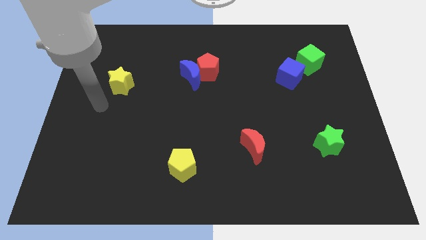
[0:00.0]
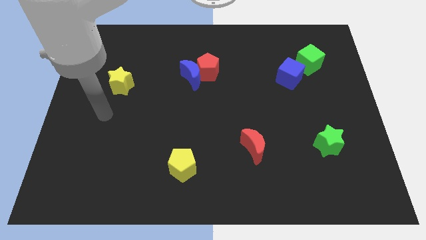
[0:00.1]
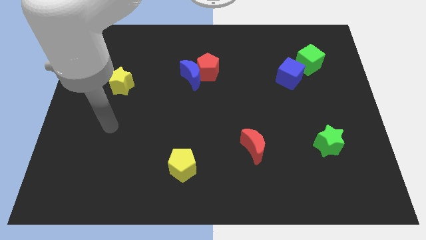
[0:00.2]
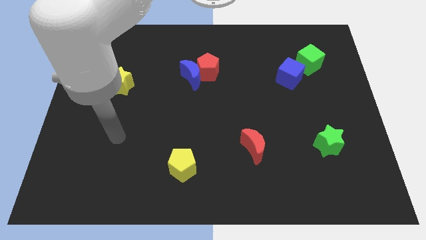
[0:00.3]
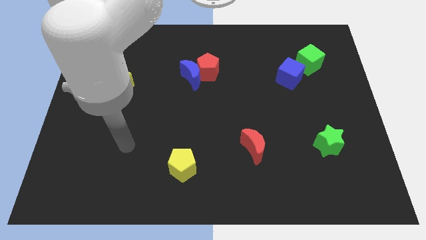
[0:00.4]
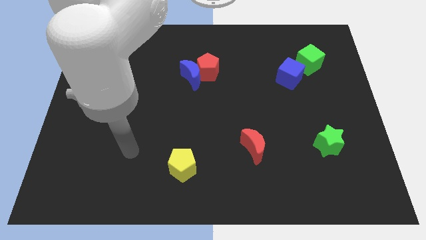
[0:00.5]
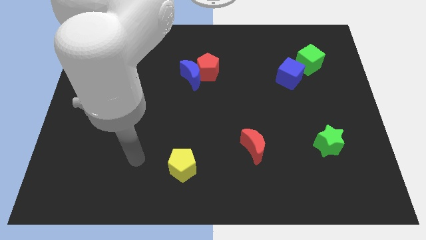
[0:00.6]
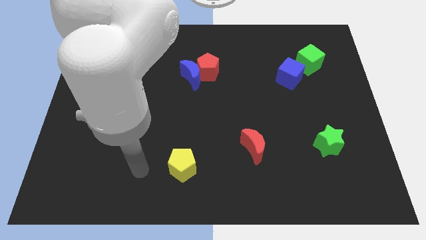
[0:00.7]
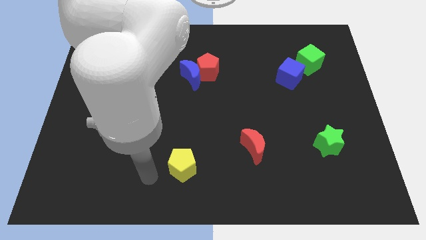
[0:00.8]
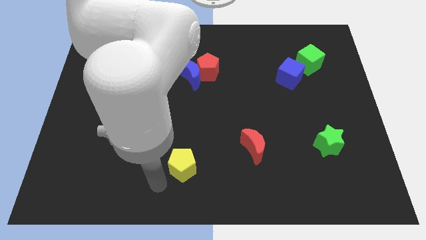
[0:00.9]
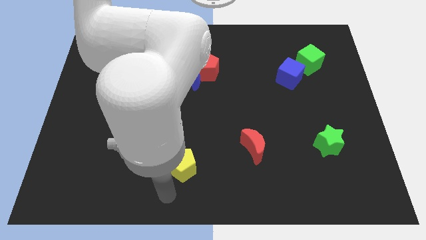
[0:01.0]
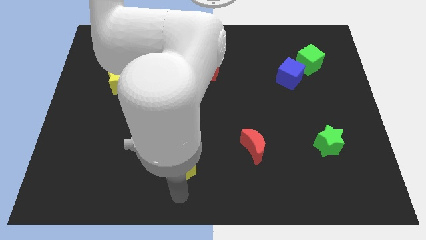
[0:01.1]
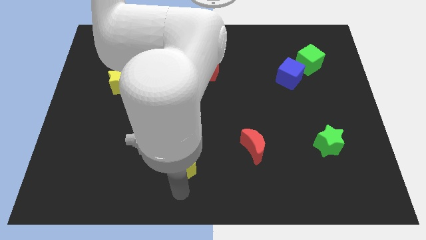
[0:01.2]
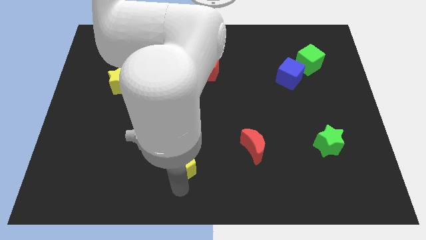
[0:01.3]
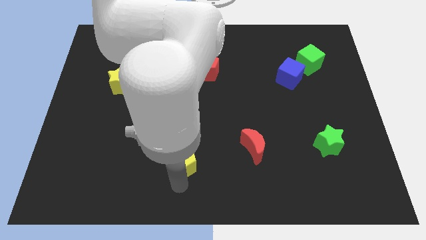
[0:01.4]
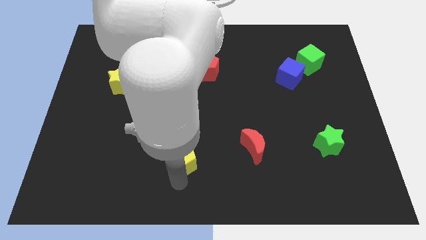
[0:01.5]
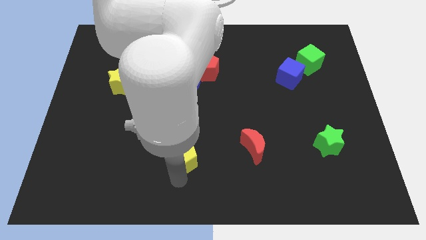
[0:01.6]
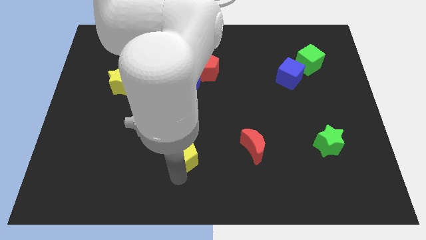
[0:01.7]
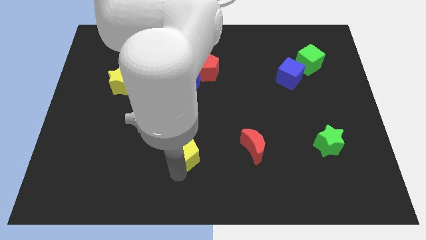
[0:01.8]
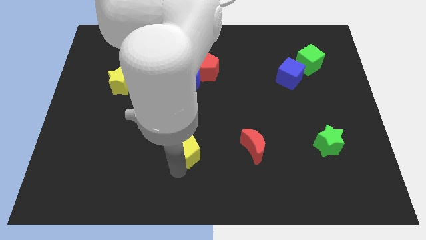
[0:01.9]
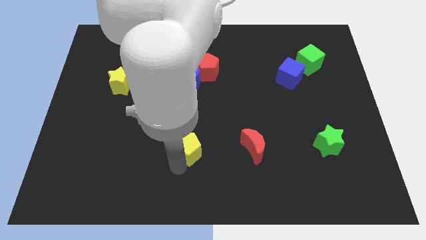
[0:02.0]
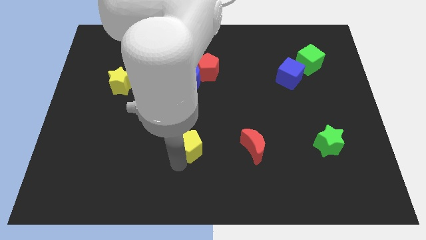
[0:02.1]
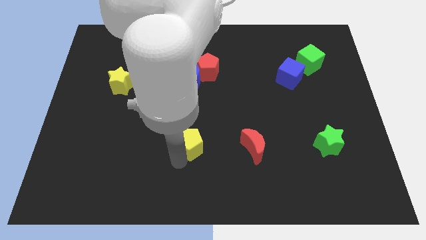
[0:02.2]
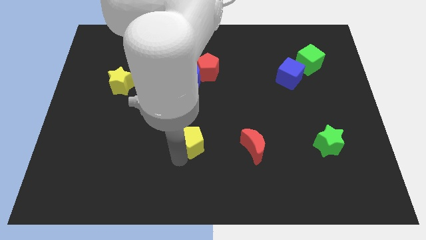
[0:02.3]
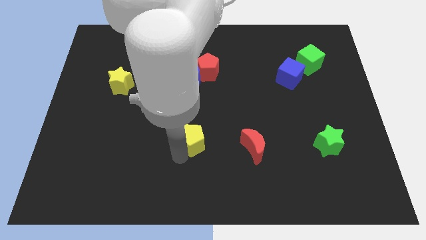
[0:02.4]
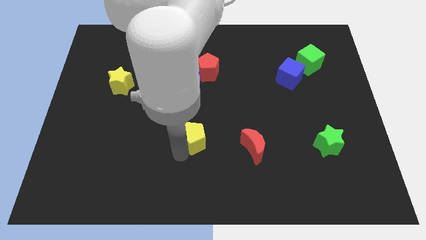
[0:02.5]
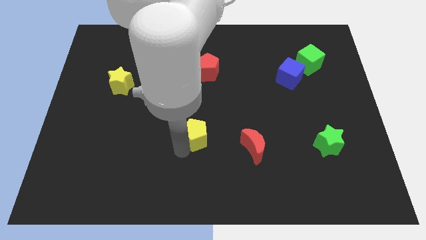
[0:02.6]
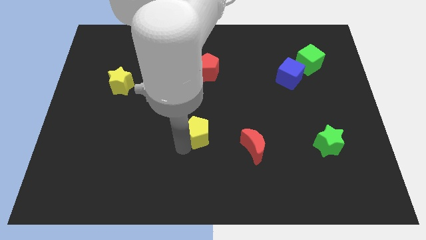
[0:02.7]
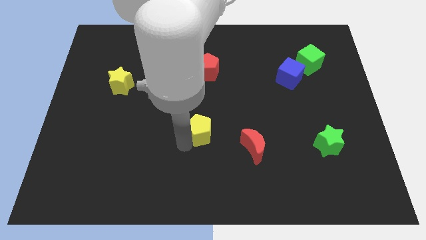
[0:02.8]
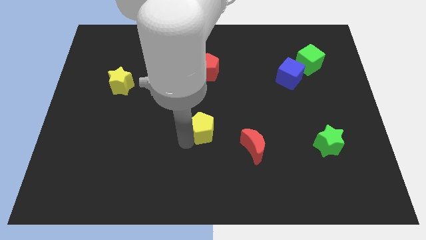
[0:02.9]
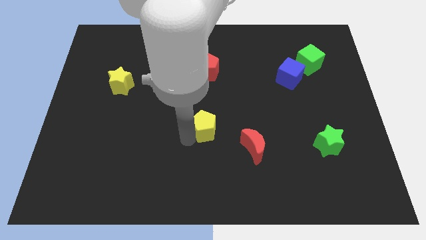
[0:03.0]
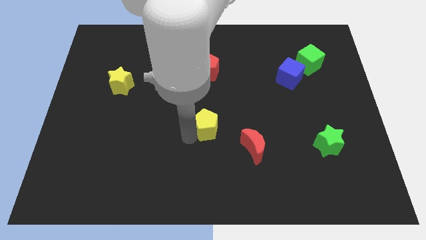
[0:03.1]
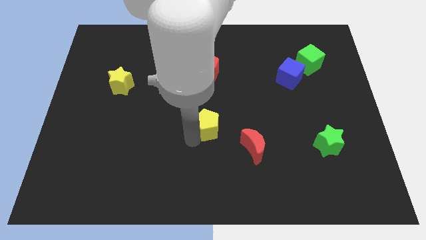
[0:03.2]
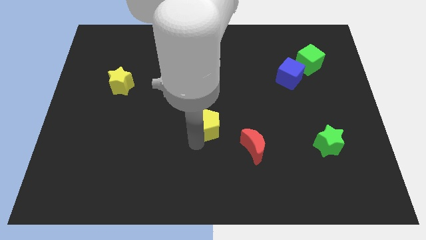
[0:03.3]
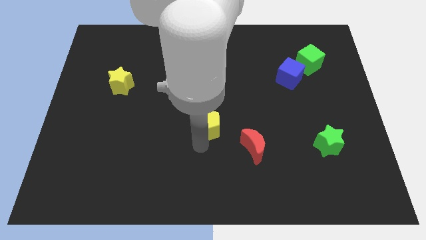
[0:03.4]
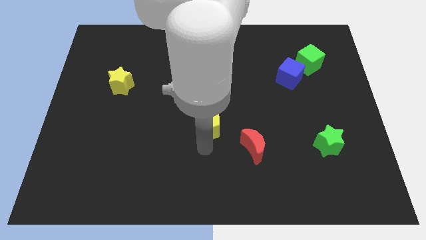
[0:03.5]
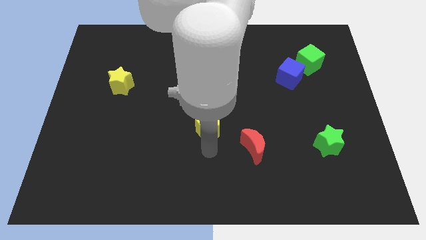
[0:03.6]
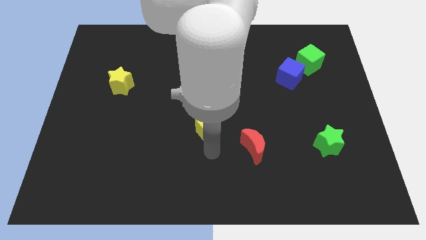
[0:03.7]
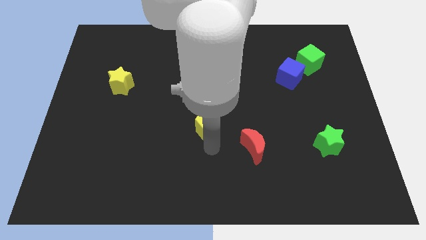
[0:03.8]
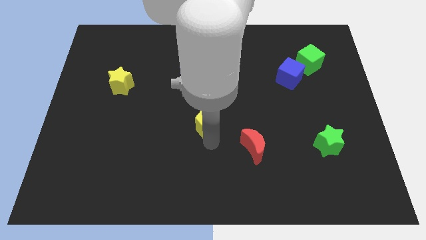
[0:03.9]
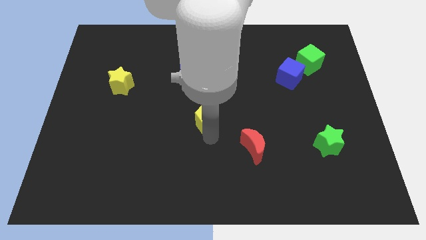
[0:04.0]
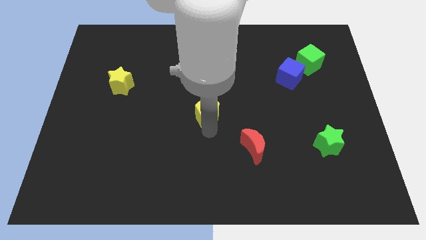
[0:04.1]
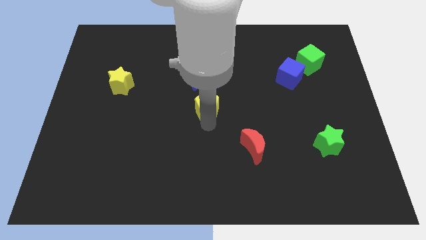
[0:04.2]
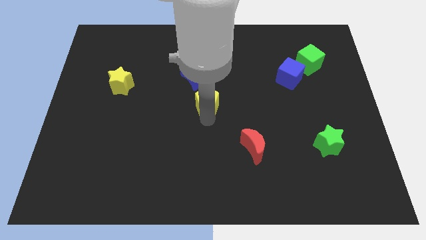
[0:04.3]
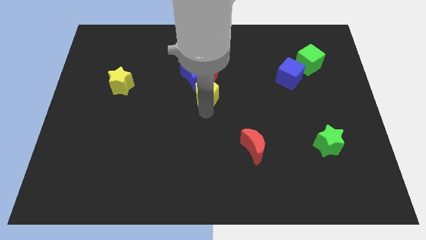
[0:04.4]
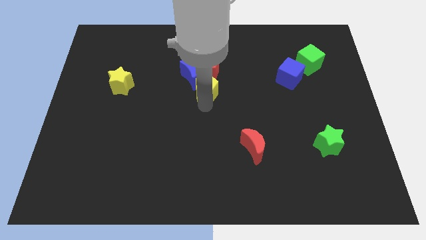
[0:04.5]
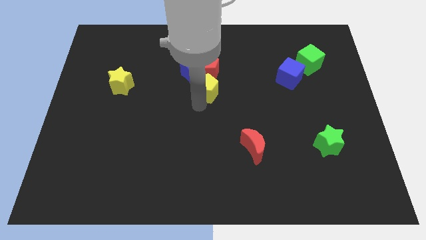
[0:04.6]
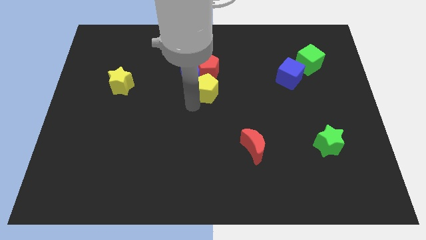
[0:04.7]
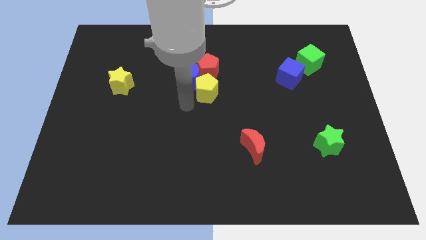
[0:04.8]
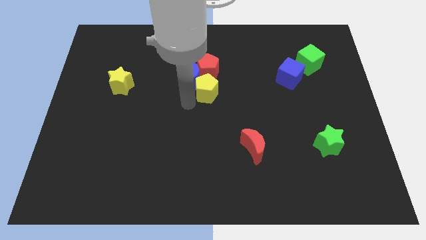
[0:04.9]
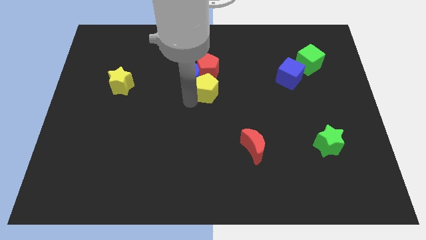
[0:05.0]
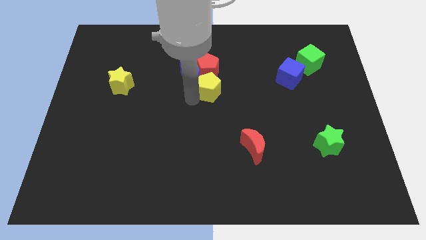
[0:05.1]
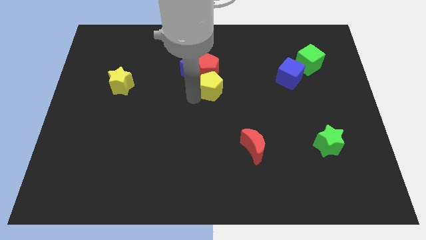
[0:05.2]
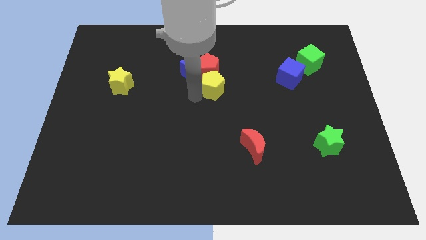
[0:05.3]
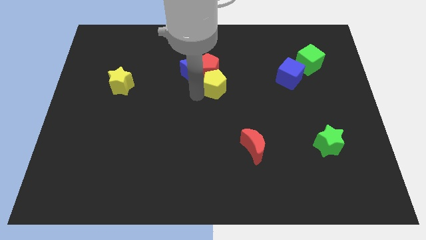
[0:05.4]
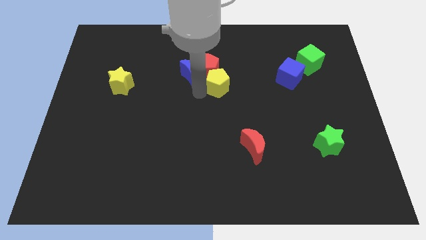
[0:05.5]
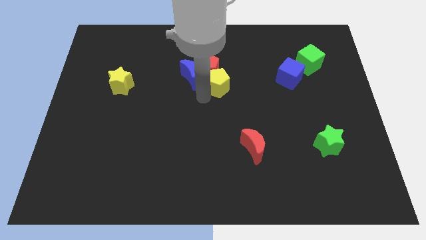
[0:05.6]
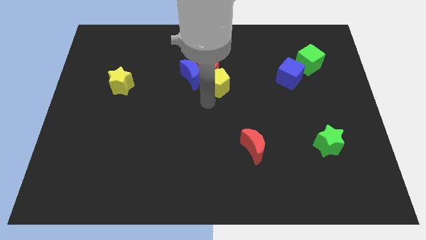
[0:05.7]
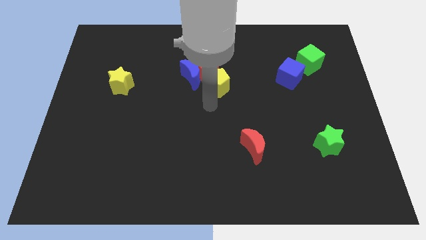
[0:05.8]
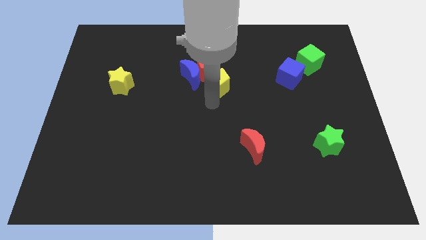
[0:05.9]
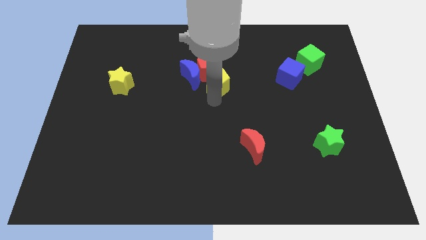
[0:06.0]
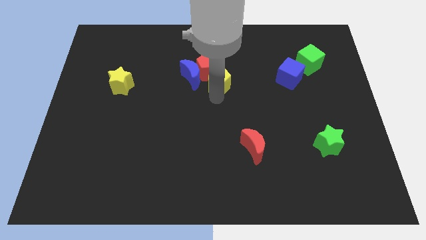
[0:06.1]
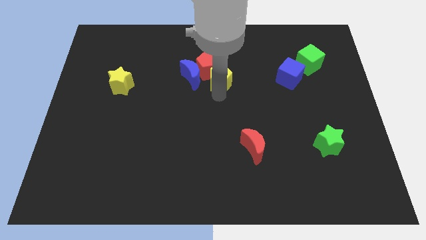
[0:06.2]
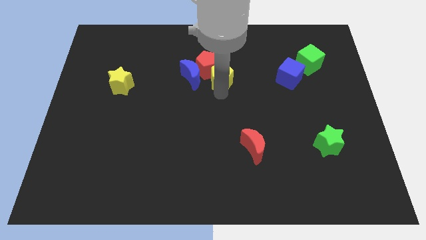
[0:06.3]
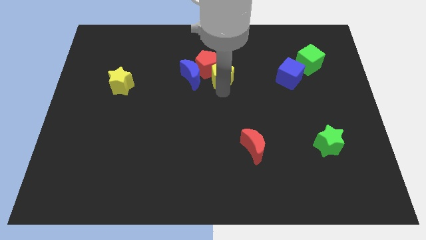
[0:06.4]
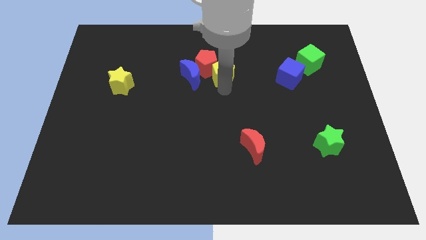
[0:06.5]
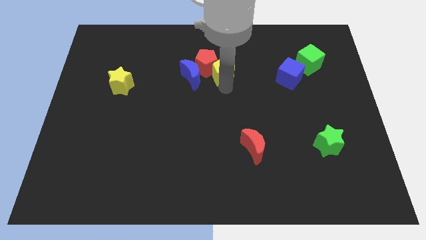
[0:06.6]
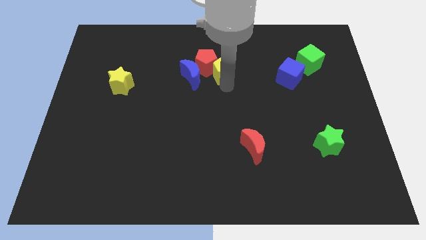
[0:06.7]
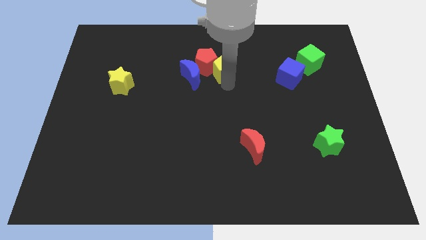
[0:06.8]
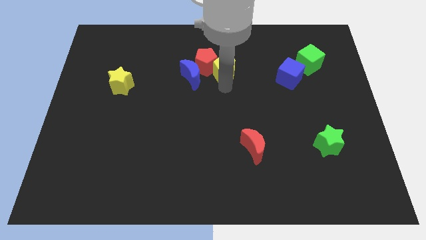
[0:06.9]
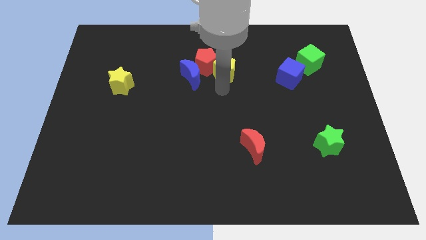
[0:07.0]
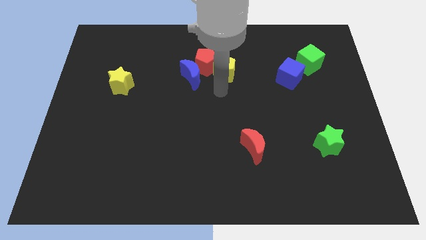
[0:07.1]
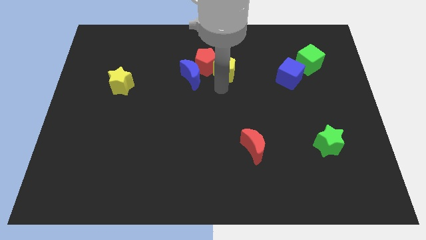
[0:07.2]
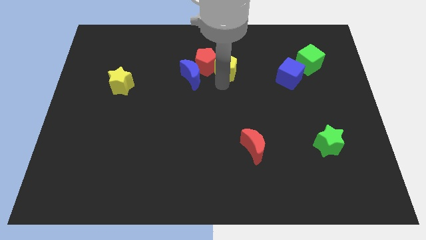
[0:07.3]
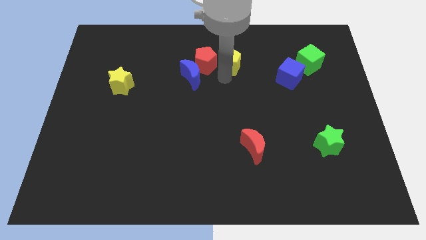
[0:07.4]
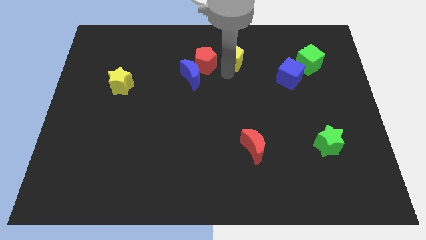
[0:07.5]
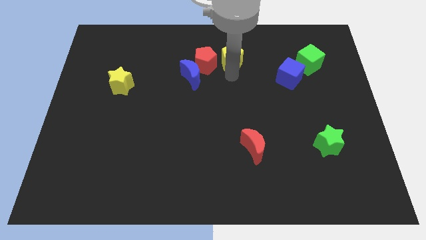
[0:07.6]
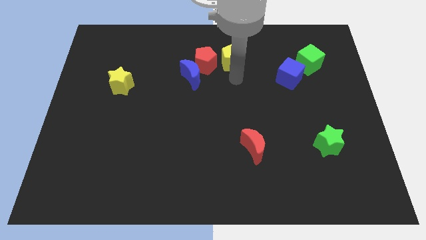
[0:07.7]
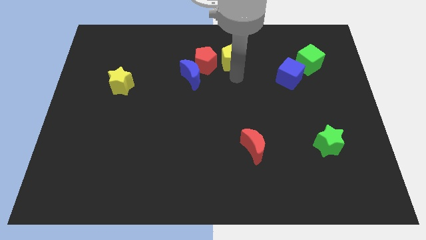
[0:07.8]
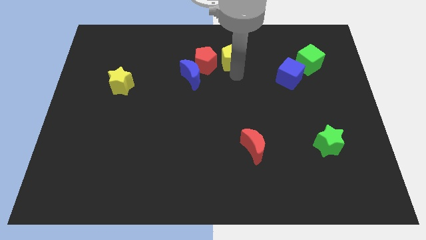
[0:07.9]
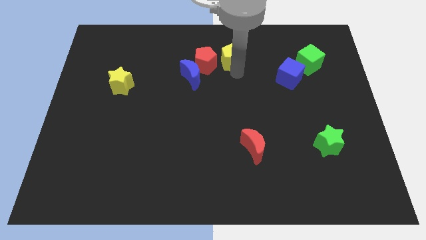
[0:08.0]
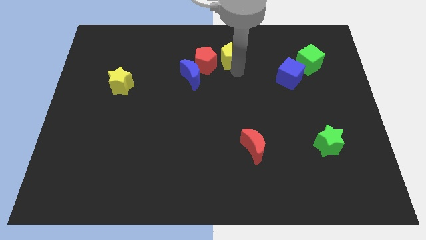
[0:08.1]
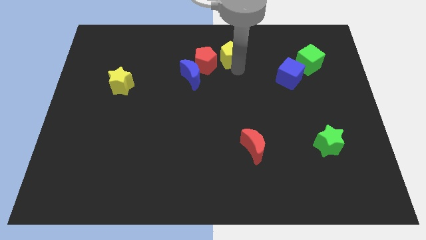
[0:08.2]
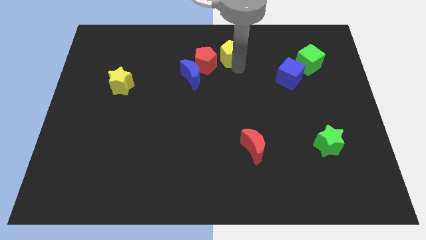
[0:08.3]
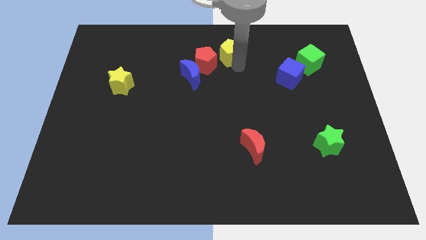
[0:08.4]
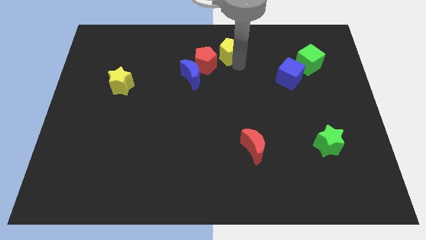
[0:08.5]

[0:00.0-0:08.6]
put the yellow pentagon to the top side
